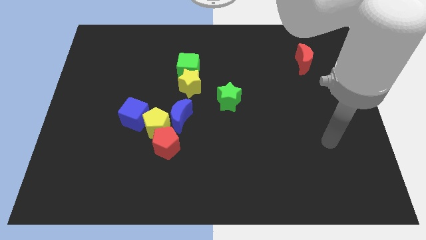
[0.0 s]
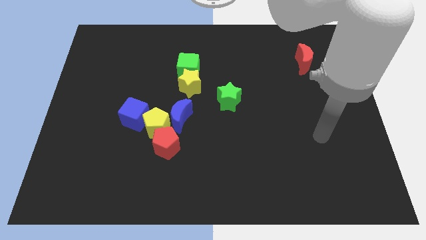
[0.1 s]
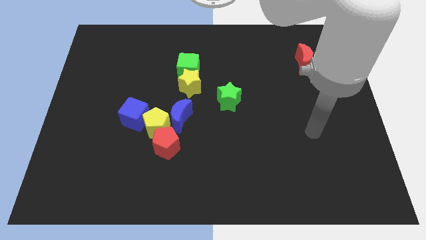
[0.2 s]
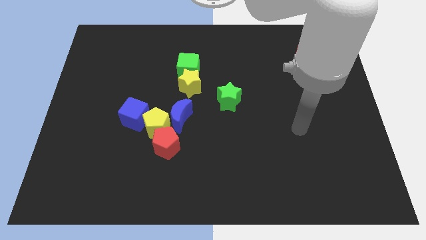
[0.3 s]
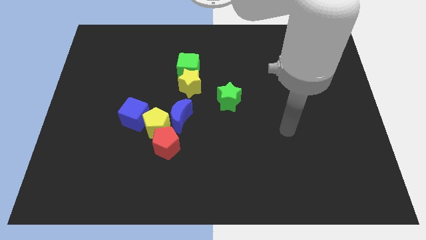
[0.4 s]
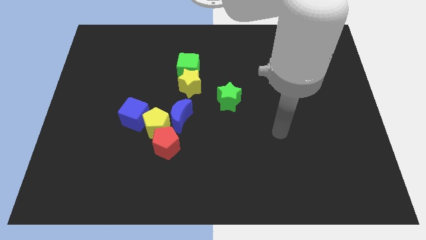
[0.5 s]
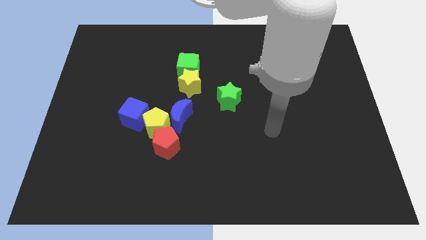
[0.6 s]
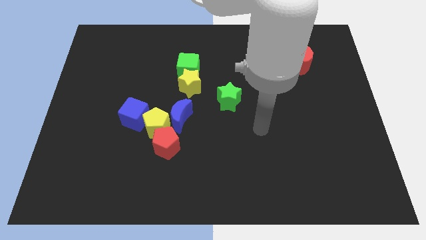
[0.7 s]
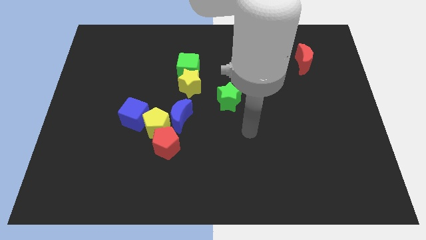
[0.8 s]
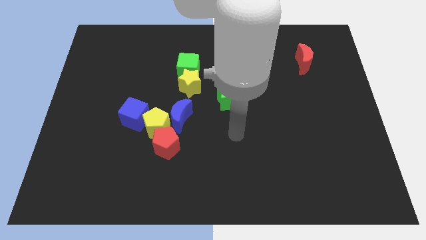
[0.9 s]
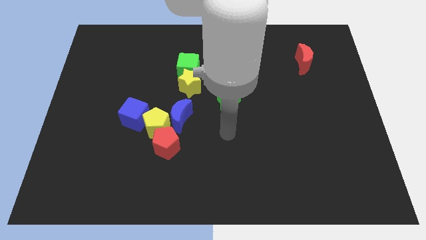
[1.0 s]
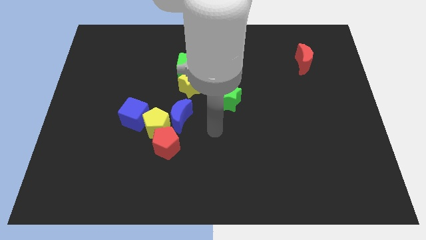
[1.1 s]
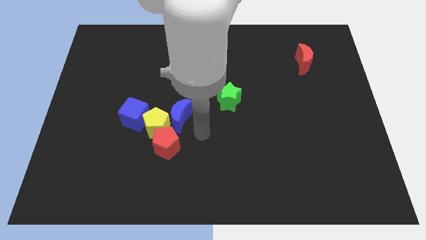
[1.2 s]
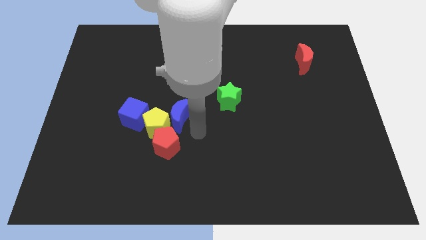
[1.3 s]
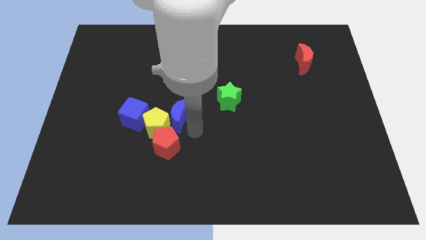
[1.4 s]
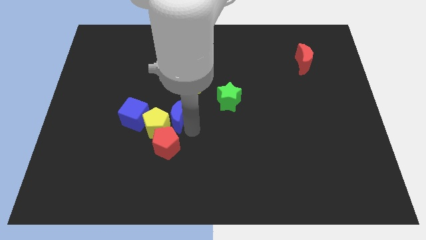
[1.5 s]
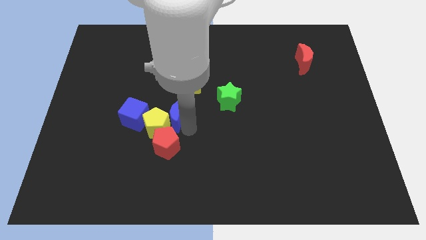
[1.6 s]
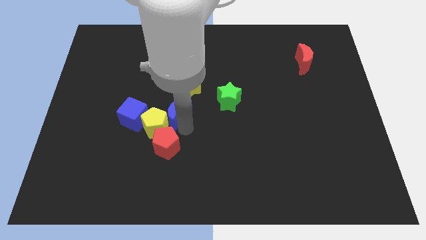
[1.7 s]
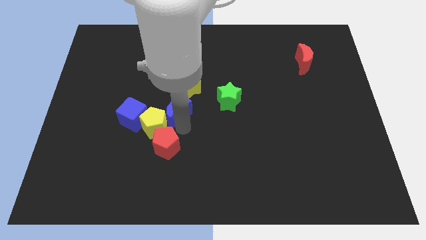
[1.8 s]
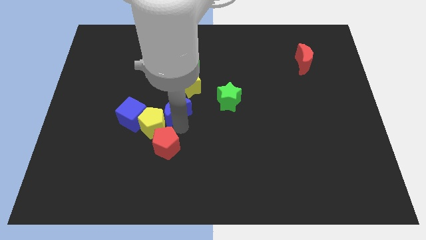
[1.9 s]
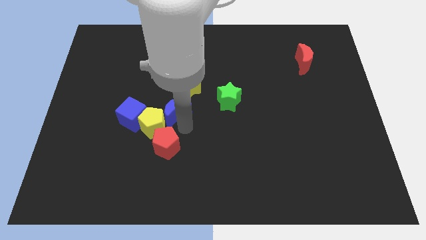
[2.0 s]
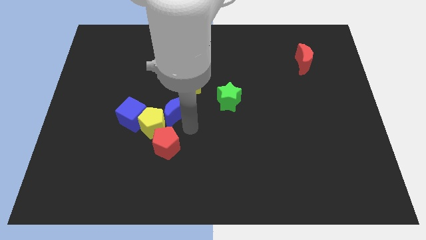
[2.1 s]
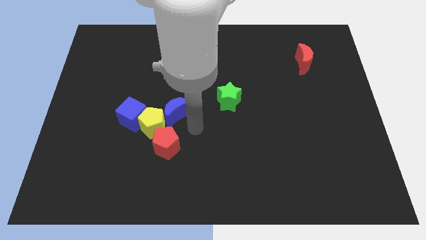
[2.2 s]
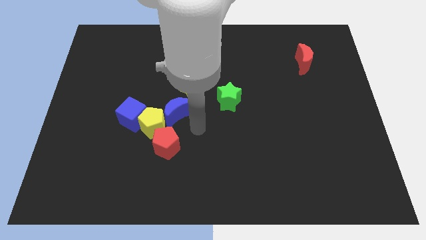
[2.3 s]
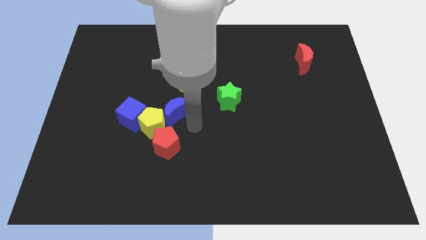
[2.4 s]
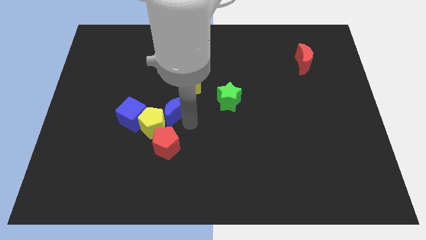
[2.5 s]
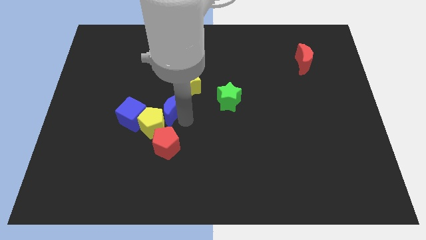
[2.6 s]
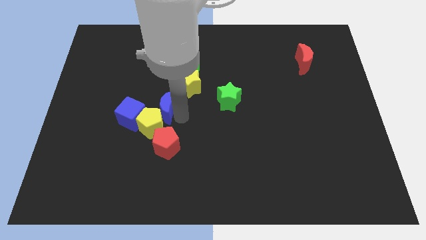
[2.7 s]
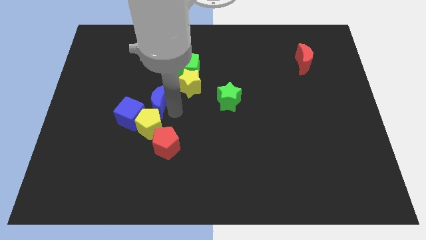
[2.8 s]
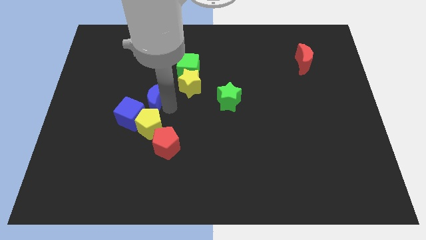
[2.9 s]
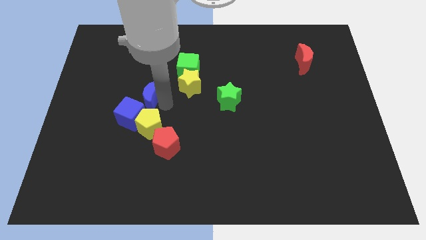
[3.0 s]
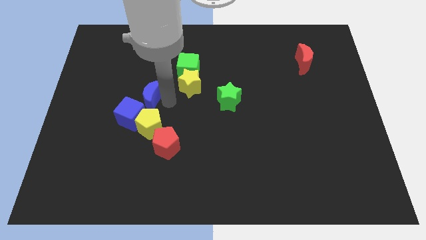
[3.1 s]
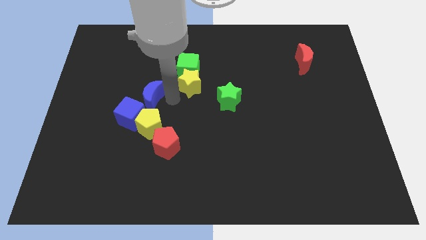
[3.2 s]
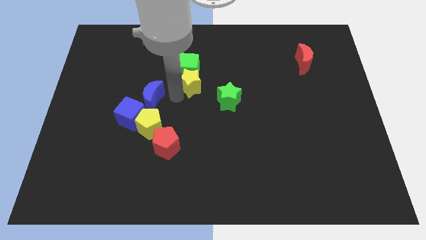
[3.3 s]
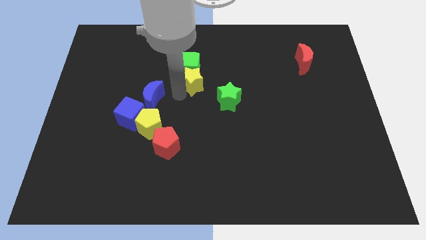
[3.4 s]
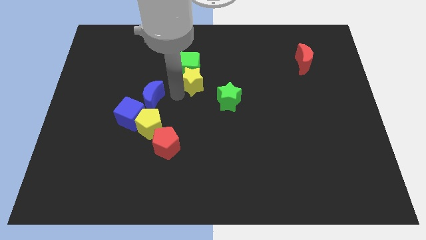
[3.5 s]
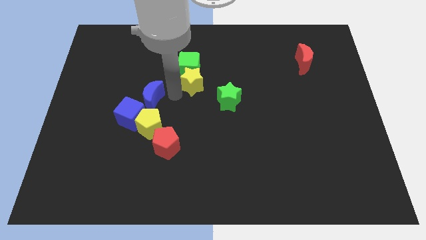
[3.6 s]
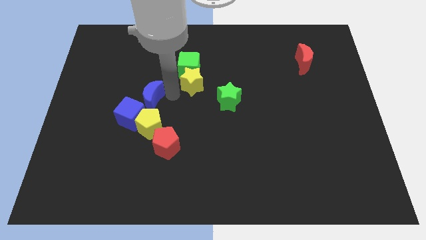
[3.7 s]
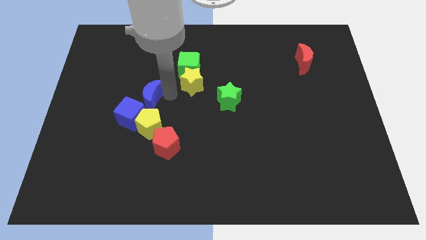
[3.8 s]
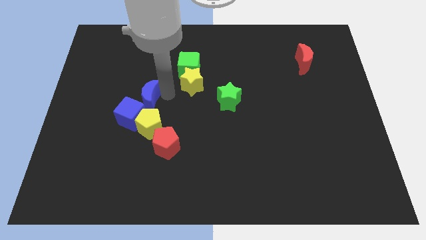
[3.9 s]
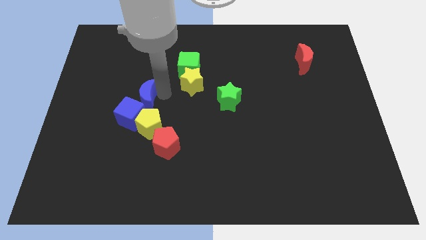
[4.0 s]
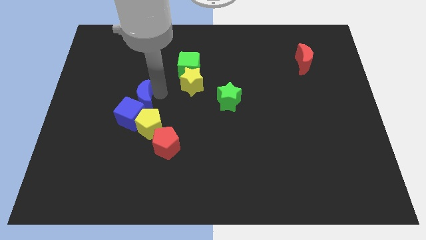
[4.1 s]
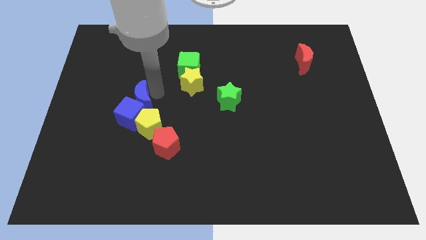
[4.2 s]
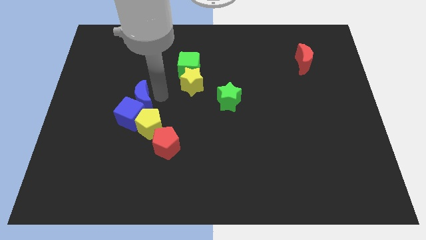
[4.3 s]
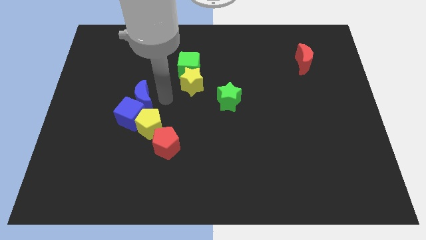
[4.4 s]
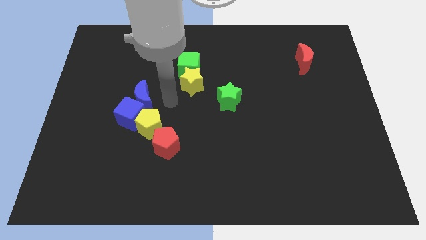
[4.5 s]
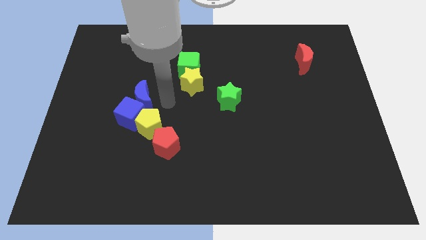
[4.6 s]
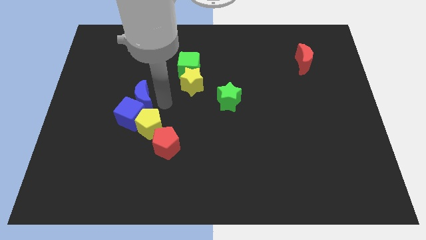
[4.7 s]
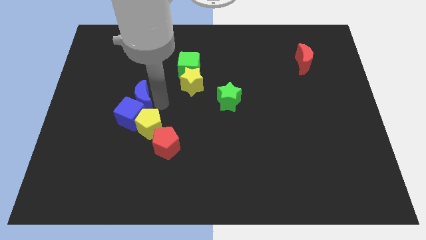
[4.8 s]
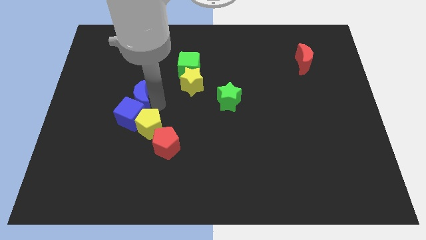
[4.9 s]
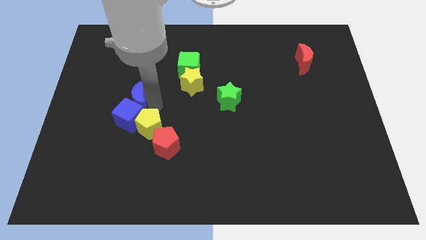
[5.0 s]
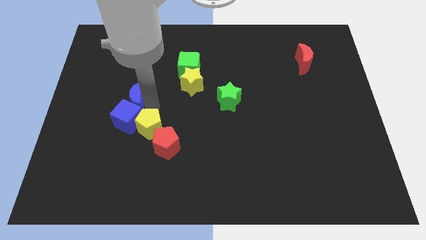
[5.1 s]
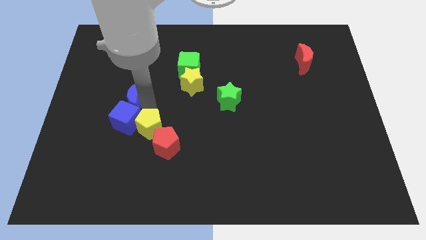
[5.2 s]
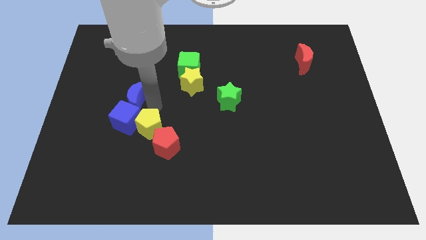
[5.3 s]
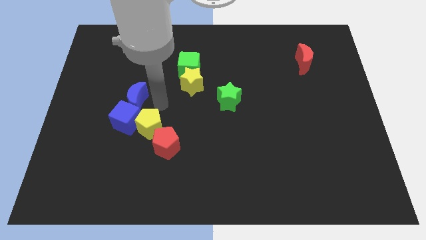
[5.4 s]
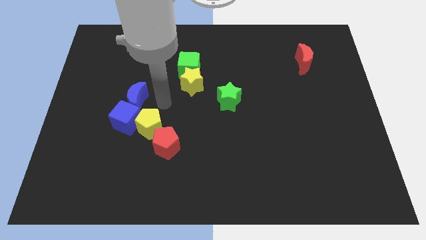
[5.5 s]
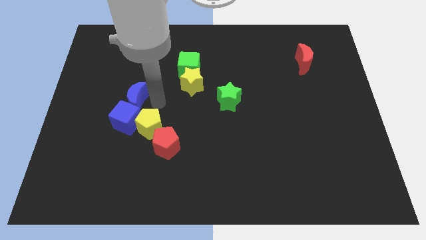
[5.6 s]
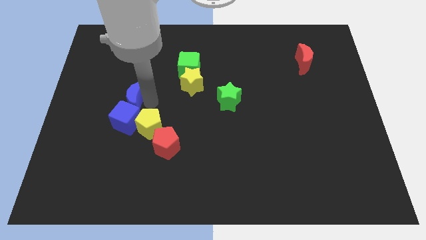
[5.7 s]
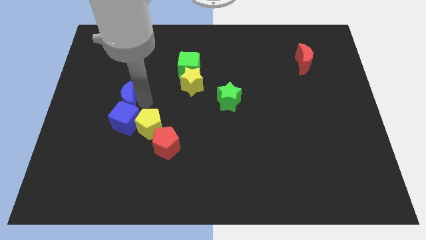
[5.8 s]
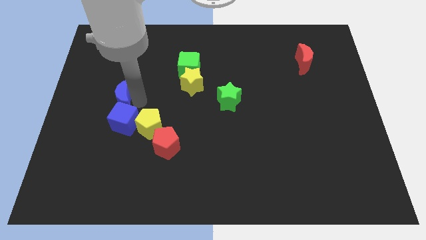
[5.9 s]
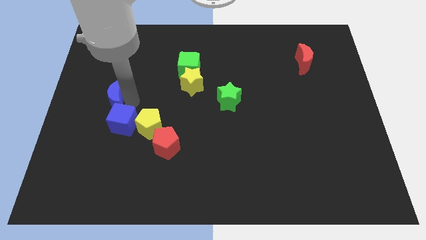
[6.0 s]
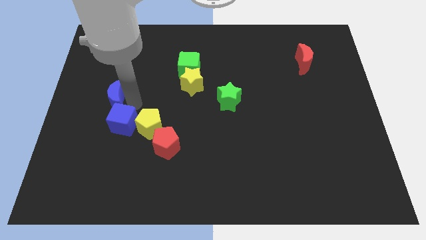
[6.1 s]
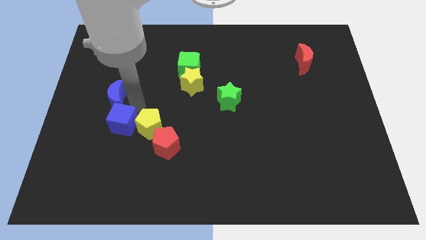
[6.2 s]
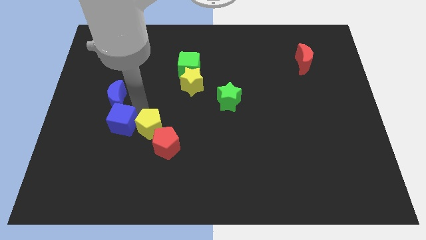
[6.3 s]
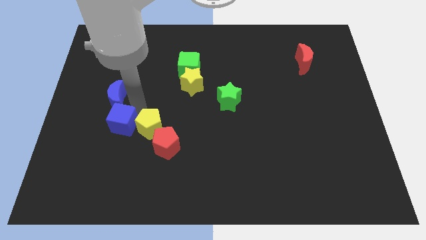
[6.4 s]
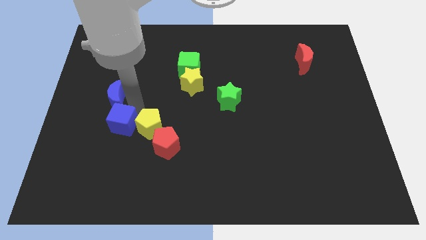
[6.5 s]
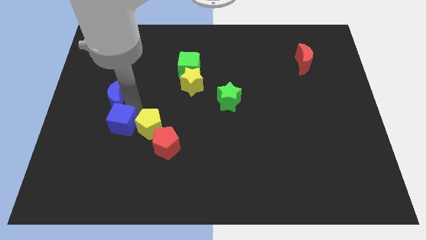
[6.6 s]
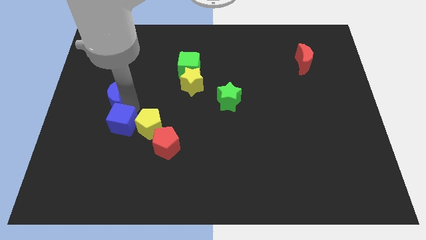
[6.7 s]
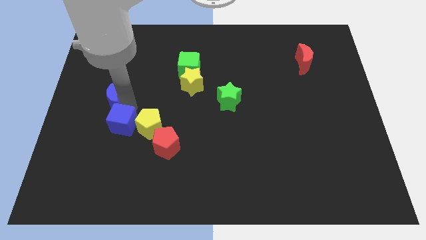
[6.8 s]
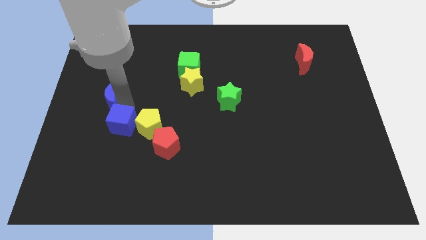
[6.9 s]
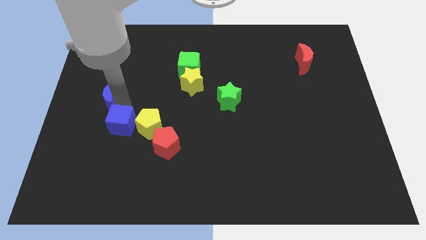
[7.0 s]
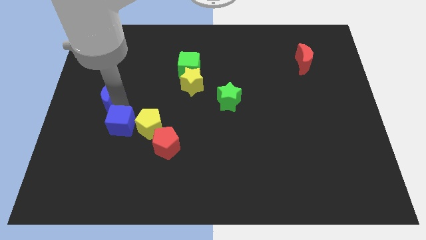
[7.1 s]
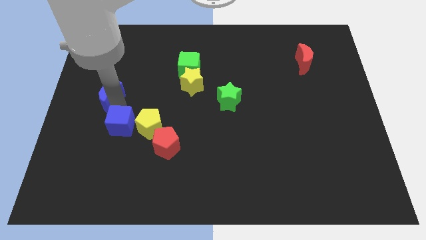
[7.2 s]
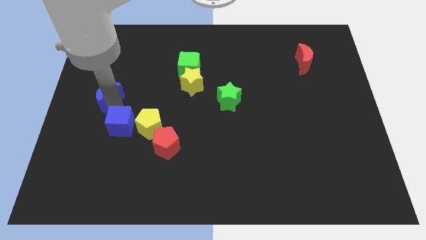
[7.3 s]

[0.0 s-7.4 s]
put the blue moon to the center left
